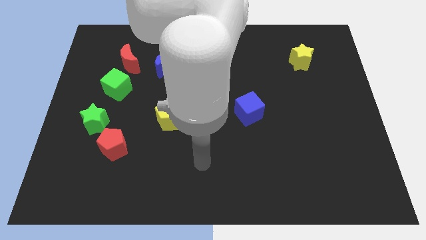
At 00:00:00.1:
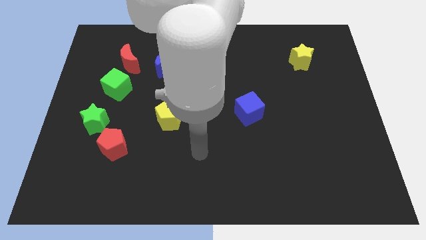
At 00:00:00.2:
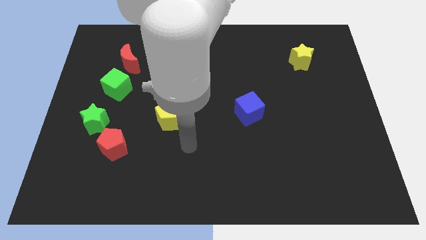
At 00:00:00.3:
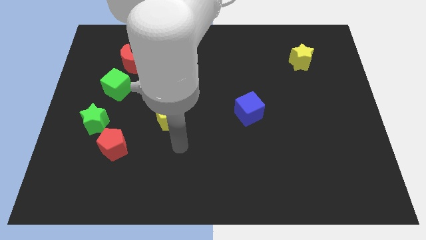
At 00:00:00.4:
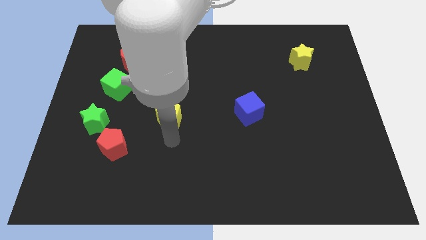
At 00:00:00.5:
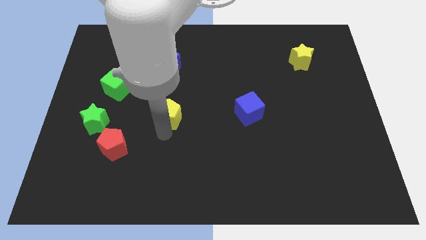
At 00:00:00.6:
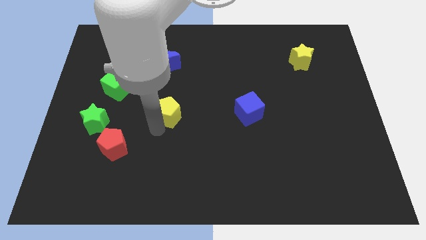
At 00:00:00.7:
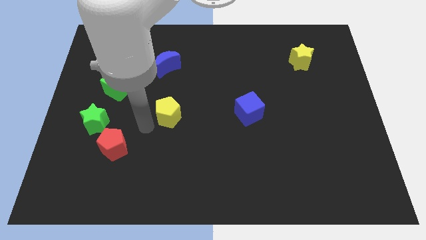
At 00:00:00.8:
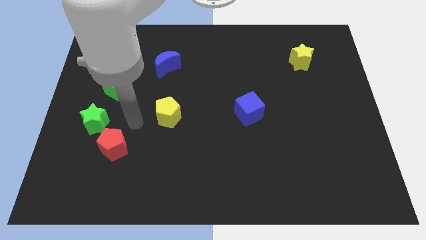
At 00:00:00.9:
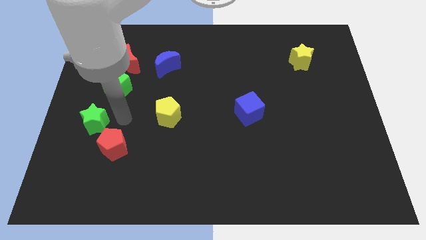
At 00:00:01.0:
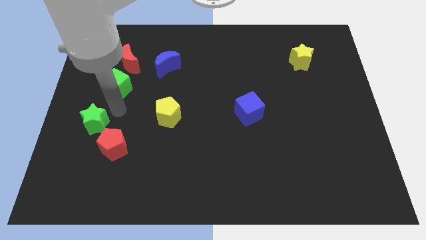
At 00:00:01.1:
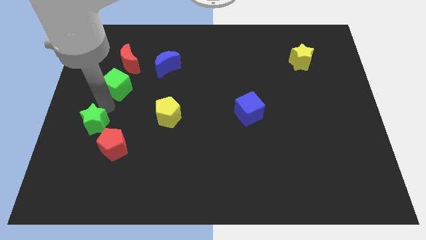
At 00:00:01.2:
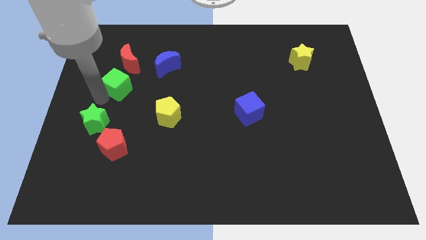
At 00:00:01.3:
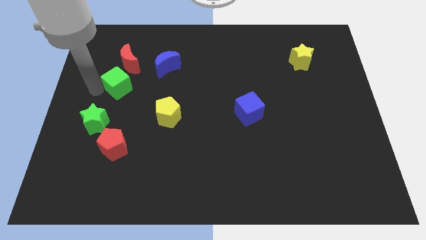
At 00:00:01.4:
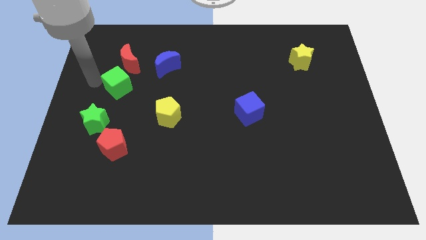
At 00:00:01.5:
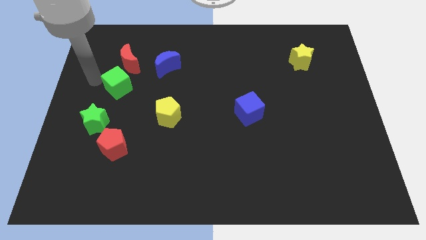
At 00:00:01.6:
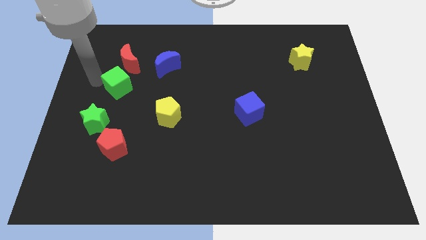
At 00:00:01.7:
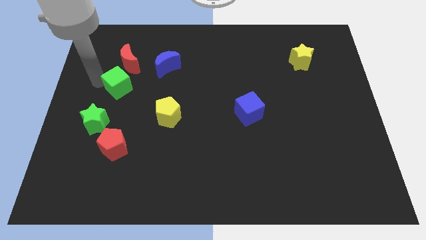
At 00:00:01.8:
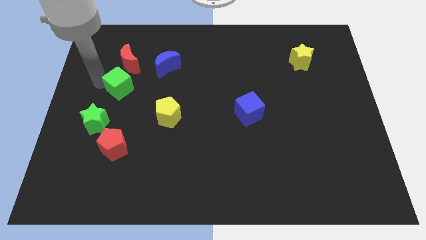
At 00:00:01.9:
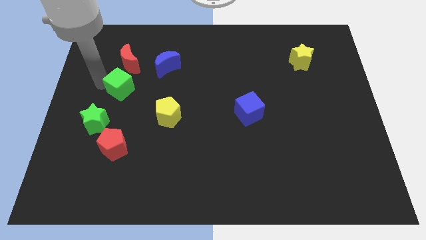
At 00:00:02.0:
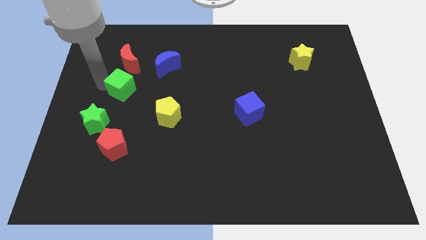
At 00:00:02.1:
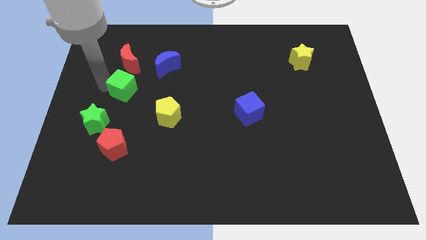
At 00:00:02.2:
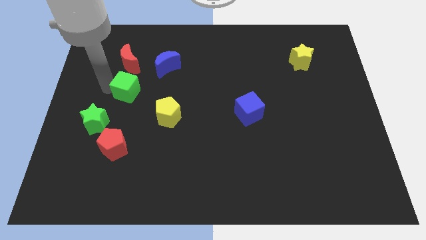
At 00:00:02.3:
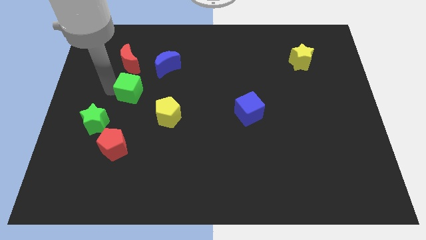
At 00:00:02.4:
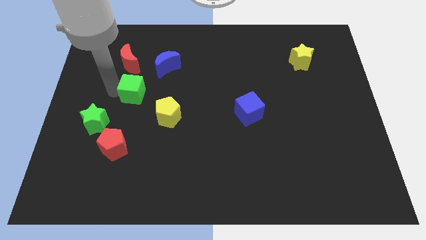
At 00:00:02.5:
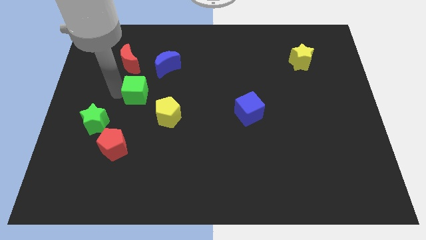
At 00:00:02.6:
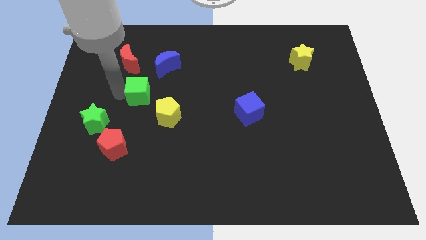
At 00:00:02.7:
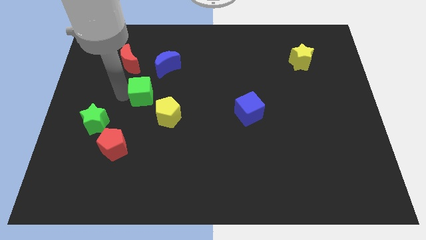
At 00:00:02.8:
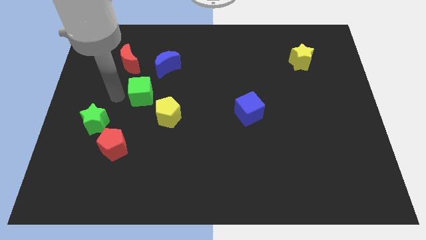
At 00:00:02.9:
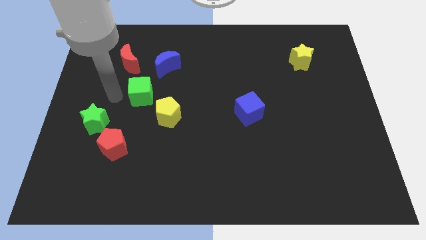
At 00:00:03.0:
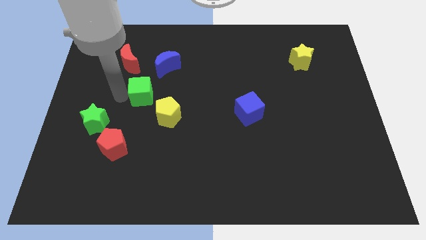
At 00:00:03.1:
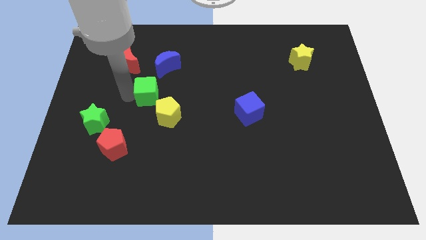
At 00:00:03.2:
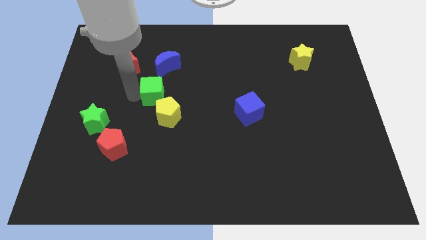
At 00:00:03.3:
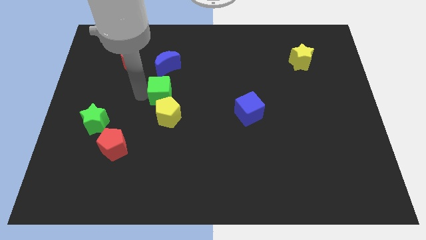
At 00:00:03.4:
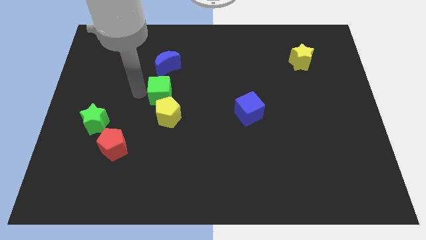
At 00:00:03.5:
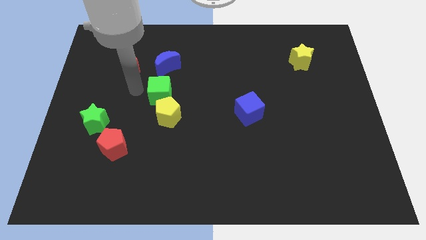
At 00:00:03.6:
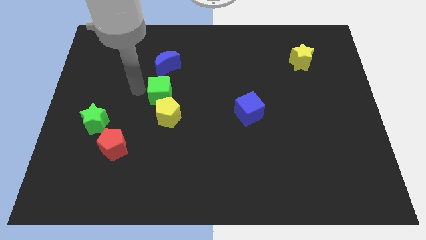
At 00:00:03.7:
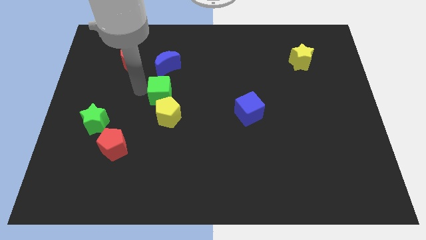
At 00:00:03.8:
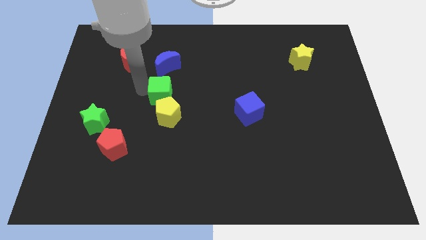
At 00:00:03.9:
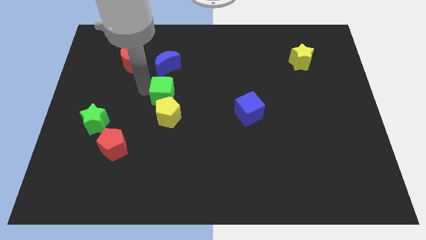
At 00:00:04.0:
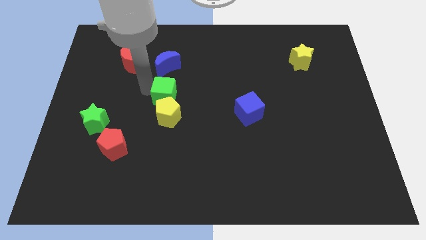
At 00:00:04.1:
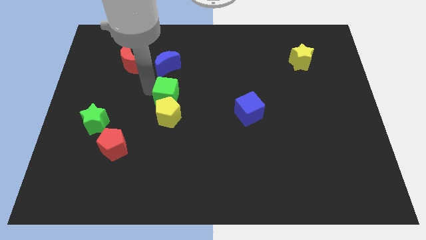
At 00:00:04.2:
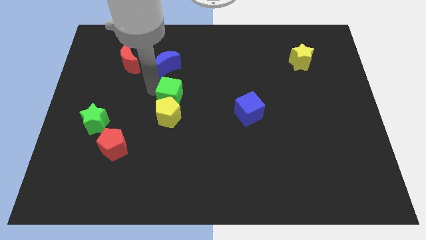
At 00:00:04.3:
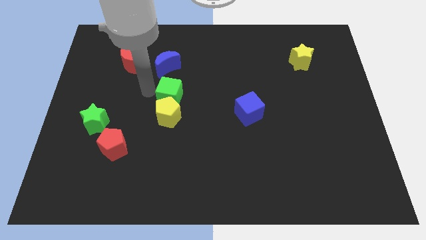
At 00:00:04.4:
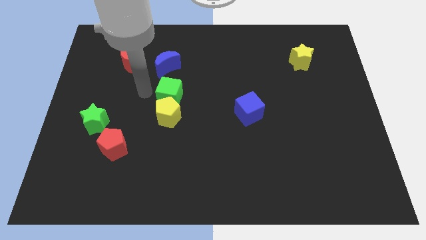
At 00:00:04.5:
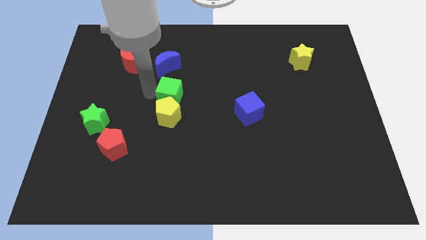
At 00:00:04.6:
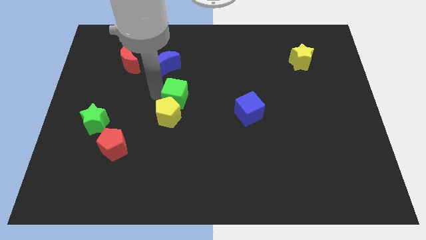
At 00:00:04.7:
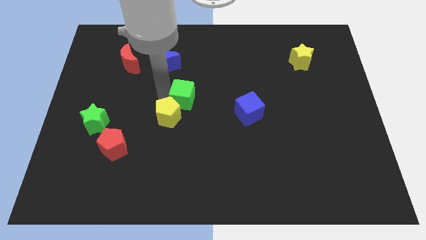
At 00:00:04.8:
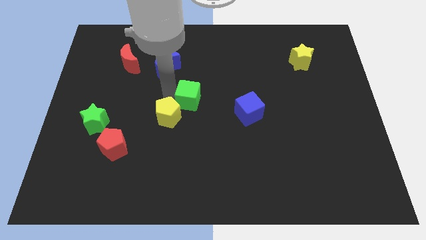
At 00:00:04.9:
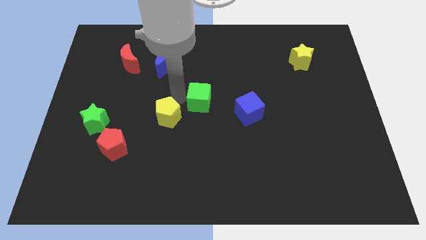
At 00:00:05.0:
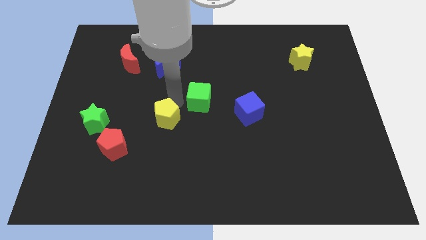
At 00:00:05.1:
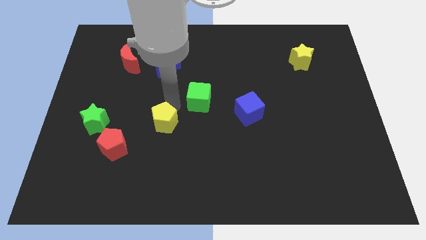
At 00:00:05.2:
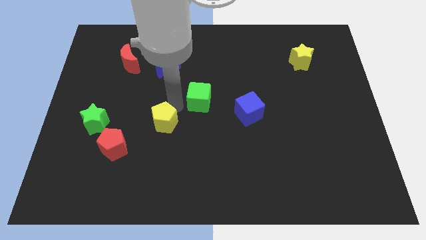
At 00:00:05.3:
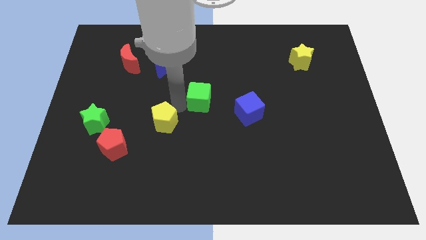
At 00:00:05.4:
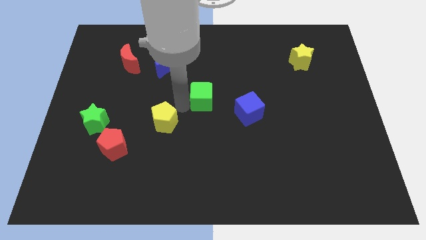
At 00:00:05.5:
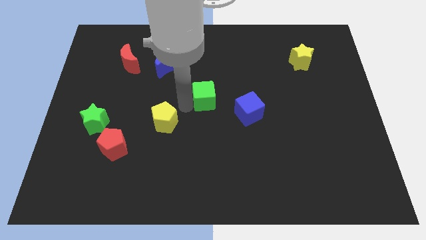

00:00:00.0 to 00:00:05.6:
push the green cube to the top left of the blue cube

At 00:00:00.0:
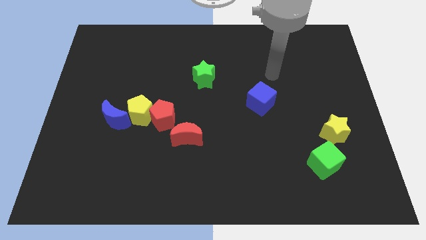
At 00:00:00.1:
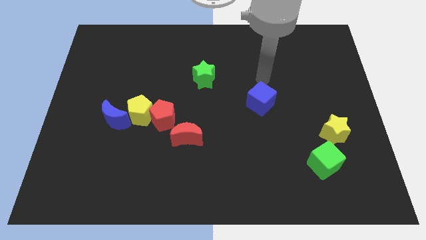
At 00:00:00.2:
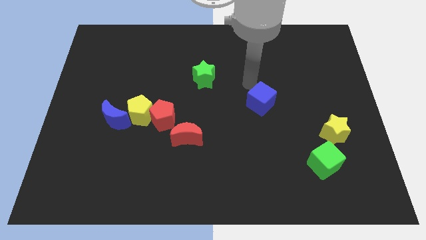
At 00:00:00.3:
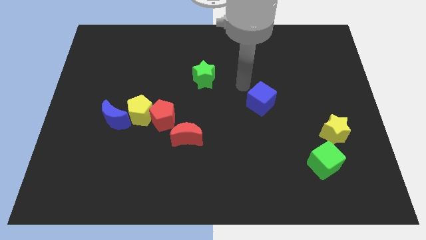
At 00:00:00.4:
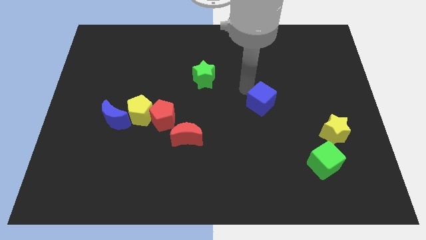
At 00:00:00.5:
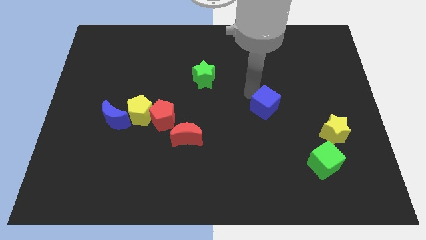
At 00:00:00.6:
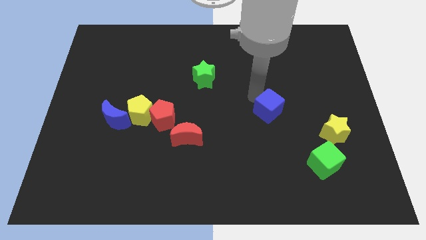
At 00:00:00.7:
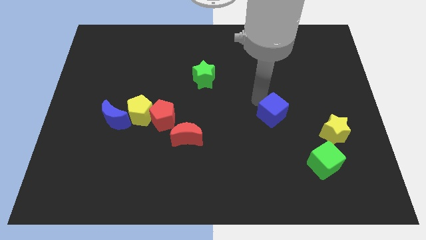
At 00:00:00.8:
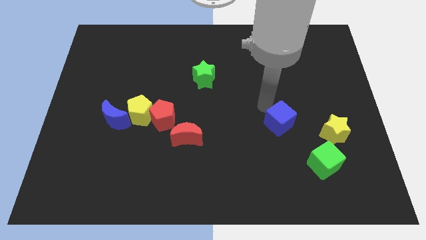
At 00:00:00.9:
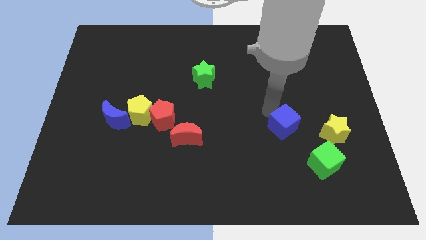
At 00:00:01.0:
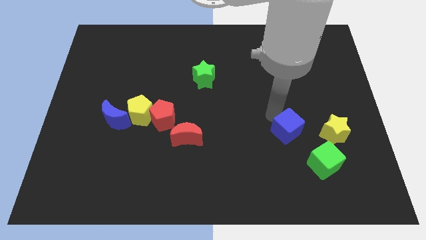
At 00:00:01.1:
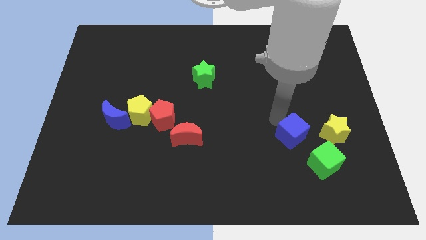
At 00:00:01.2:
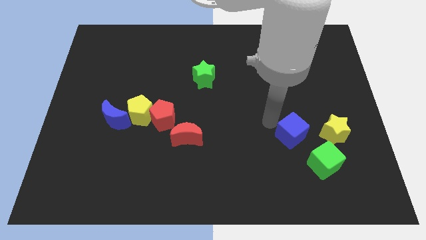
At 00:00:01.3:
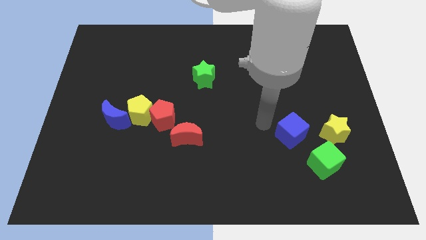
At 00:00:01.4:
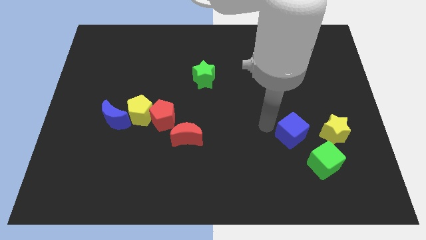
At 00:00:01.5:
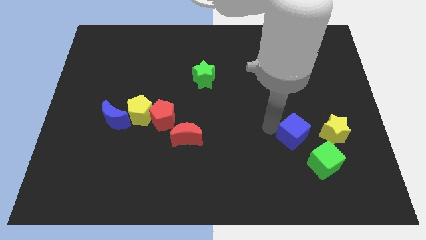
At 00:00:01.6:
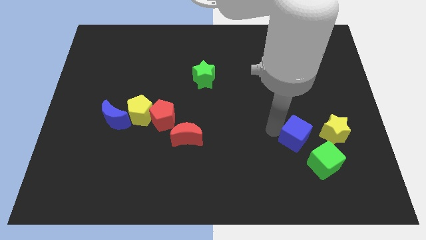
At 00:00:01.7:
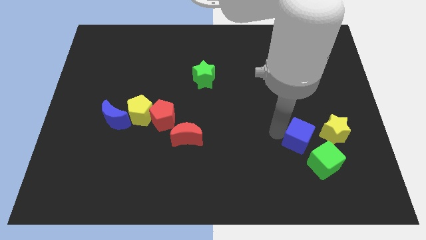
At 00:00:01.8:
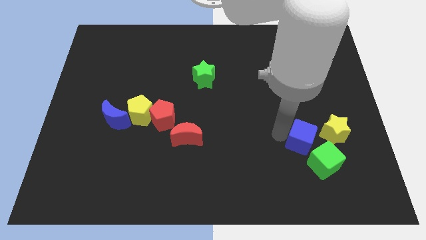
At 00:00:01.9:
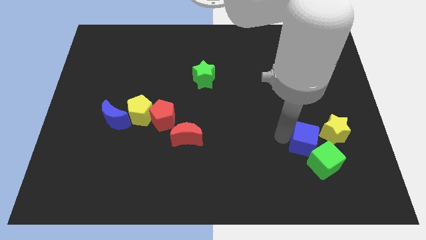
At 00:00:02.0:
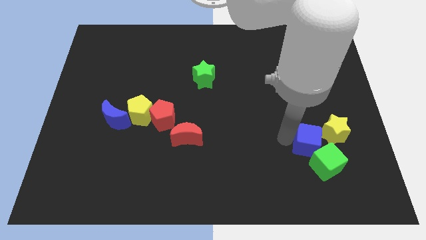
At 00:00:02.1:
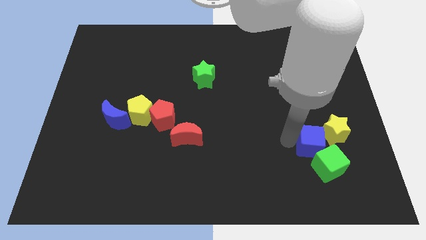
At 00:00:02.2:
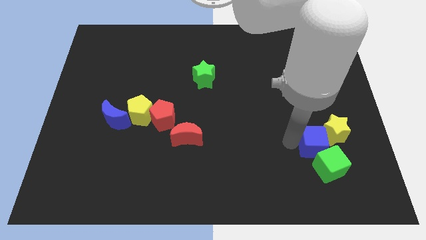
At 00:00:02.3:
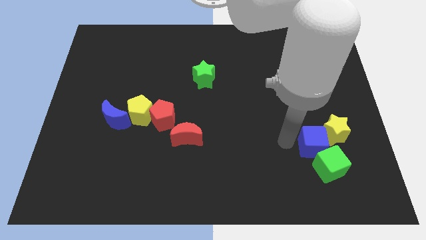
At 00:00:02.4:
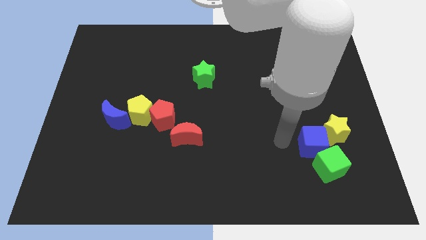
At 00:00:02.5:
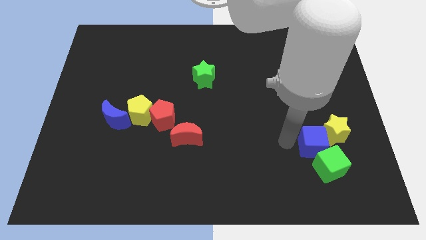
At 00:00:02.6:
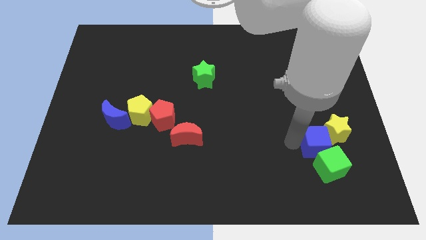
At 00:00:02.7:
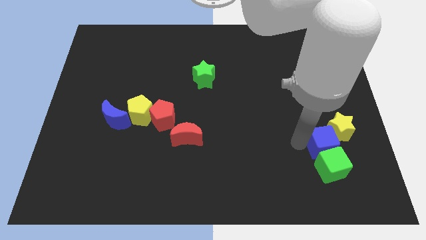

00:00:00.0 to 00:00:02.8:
push the blue cube below the yellow star
